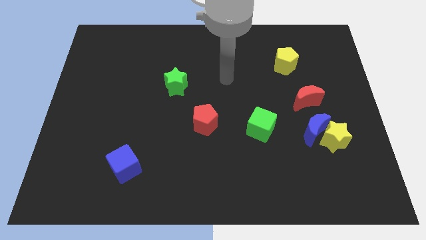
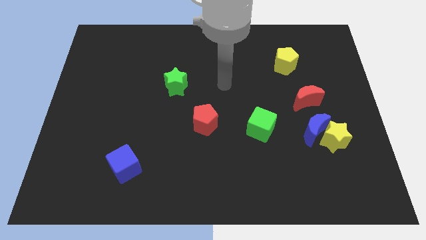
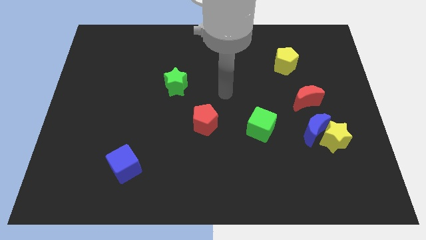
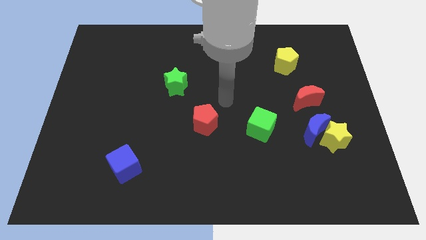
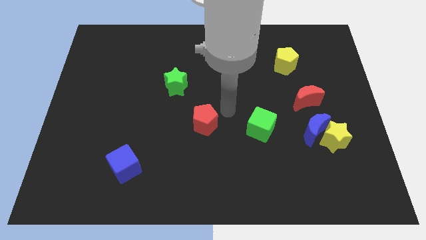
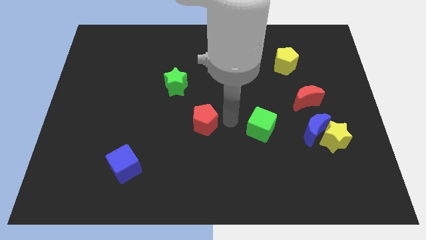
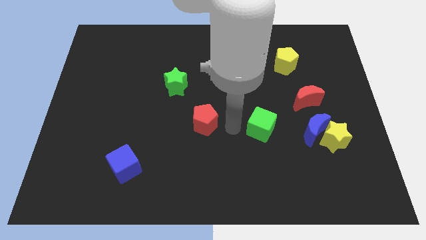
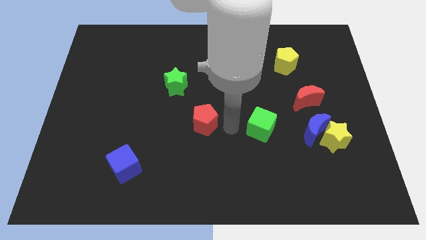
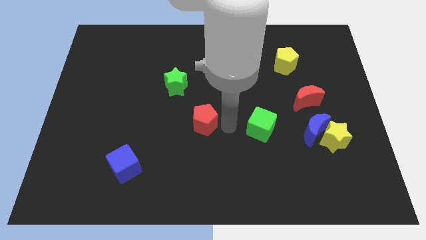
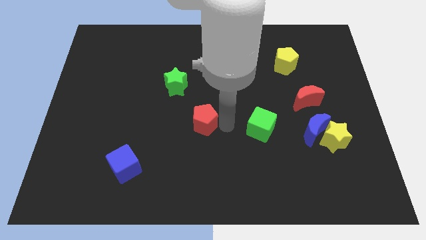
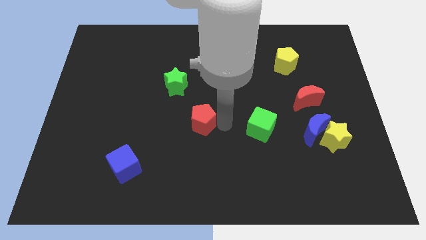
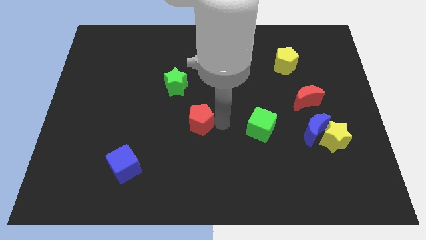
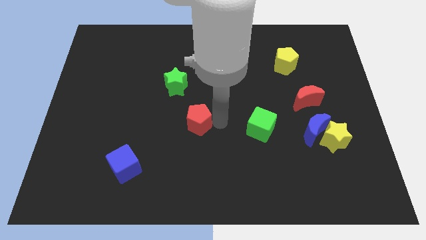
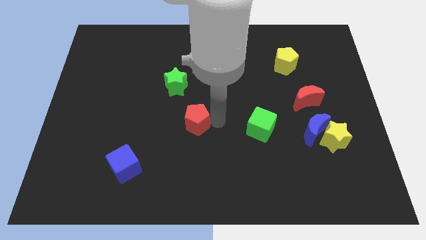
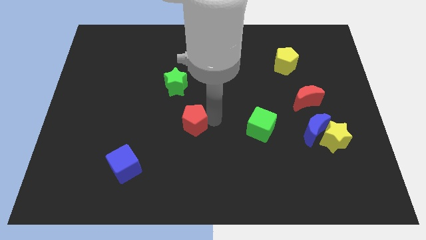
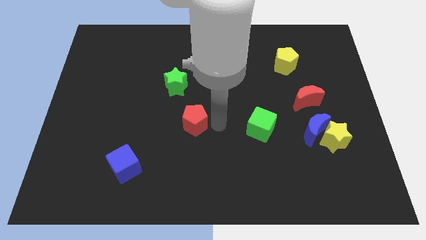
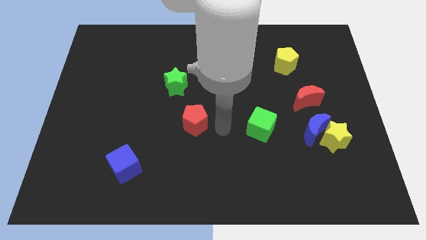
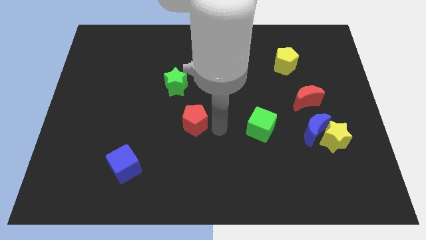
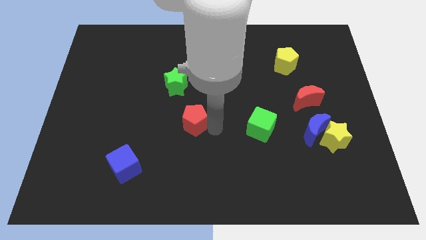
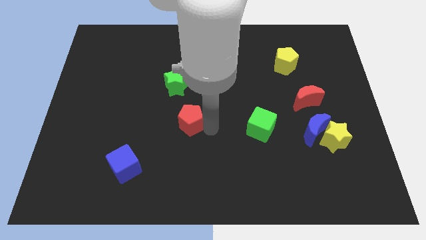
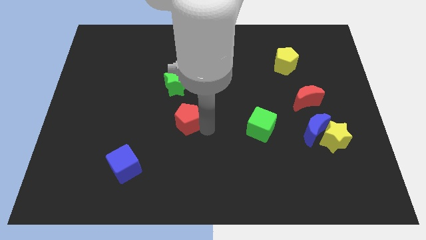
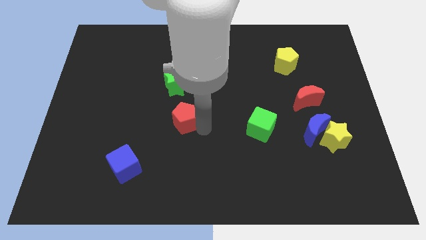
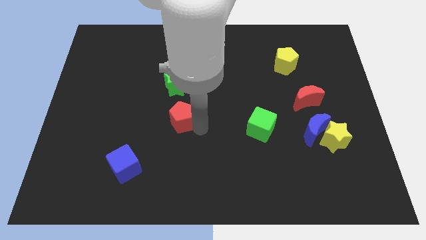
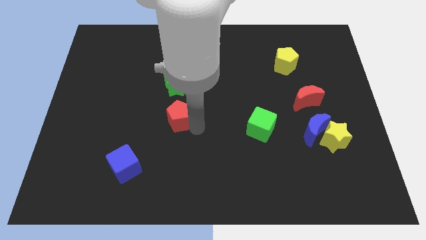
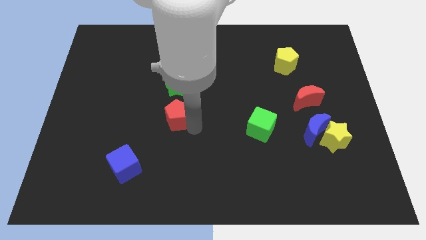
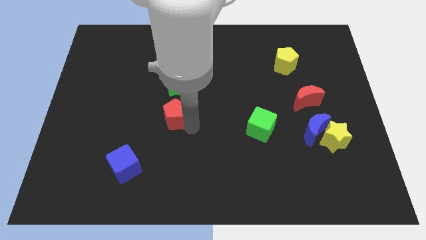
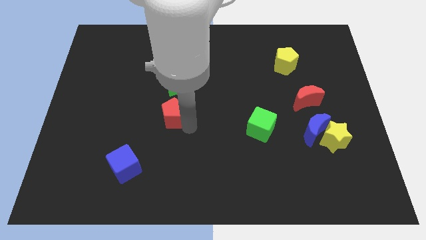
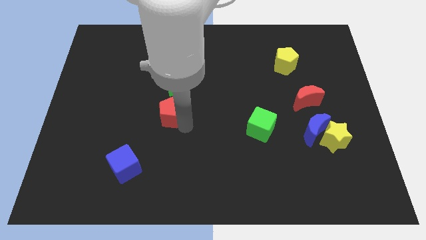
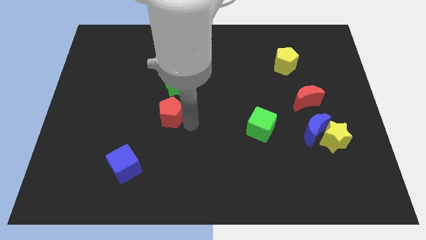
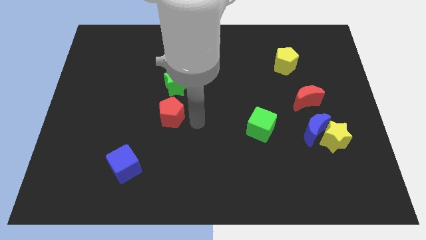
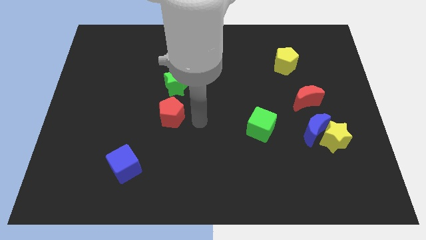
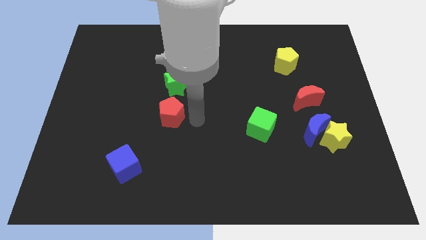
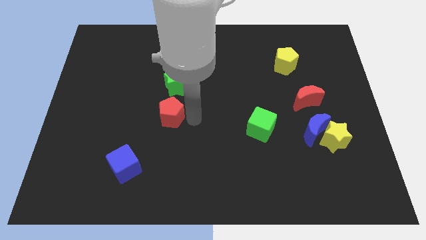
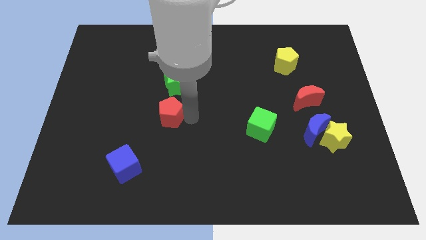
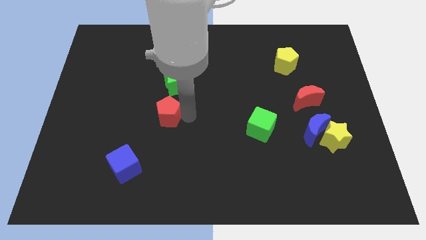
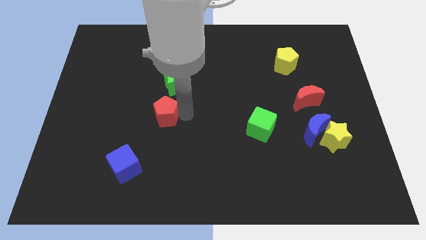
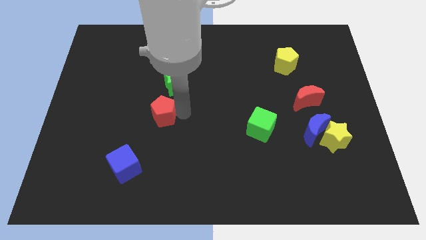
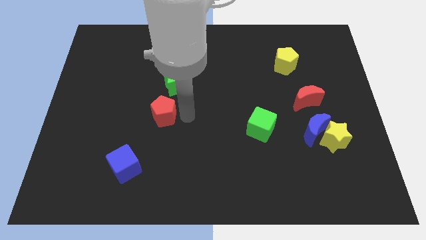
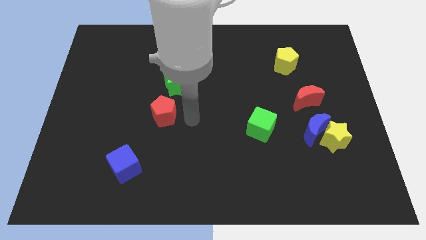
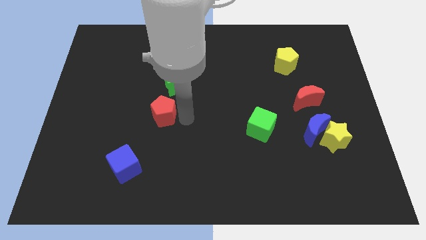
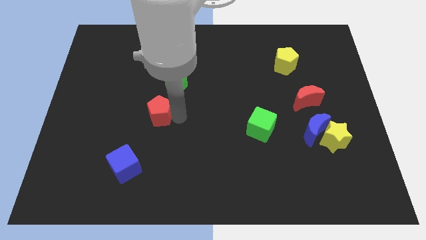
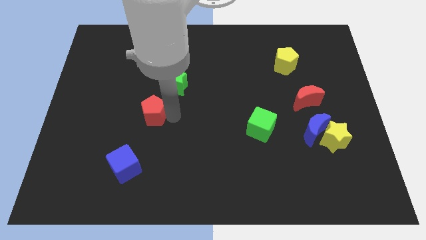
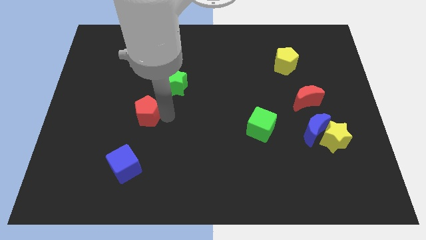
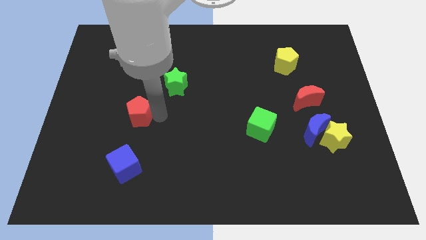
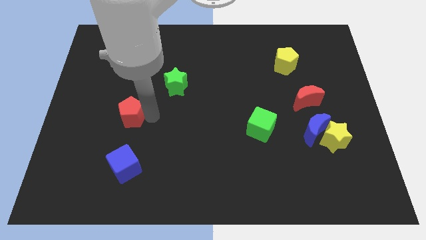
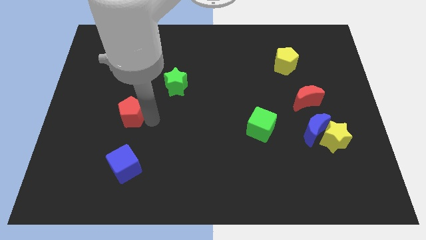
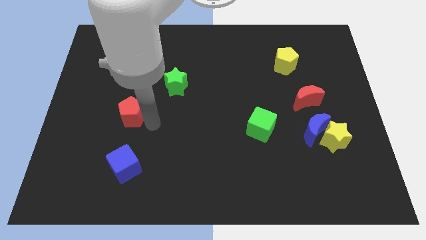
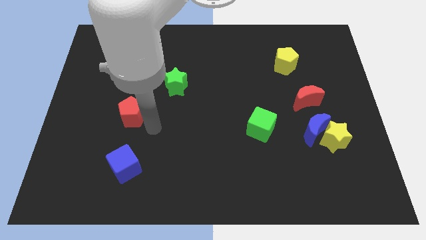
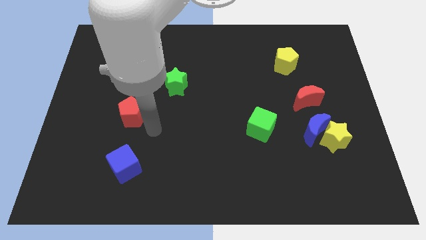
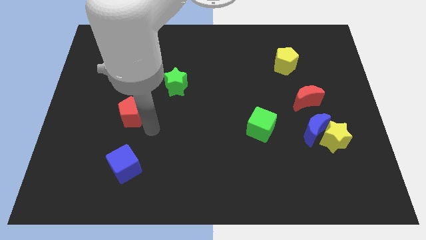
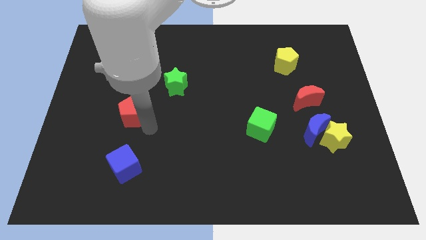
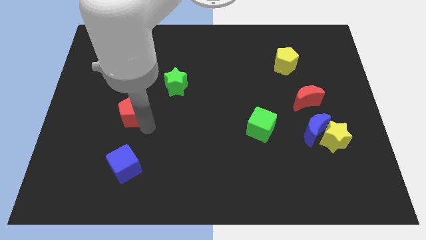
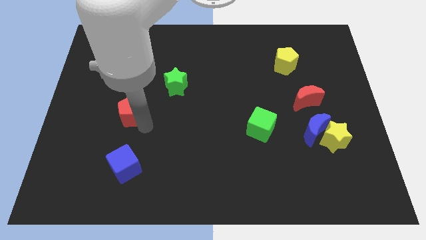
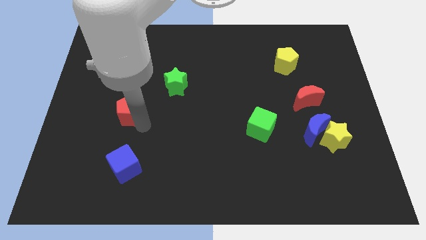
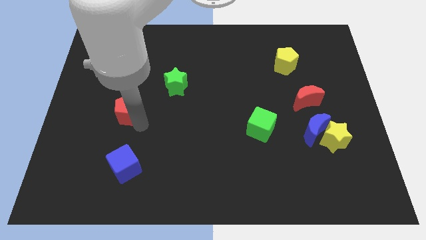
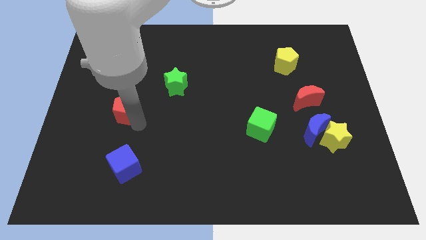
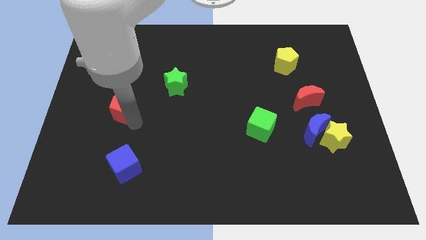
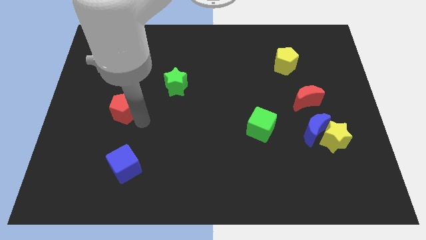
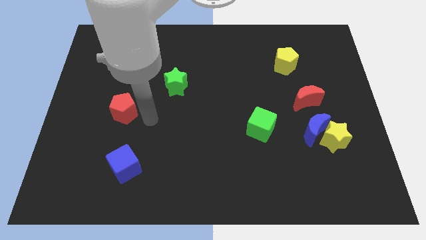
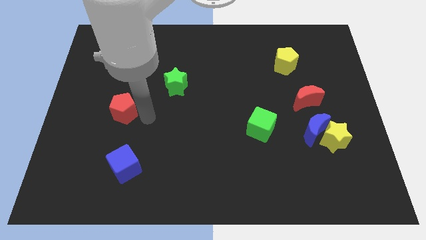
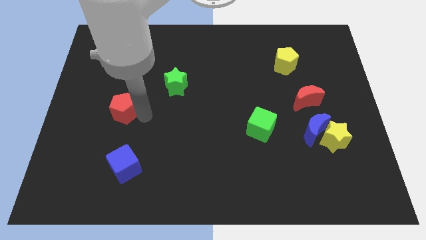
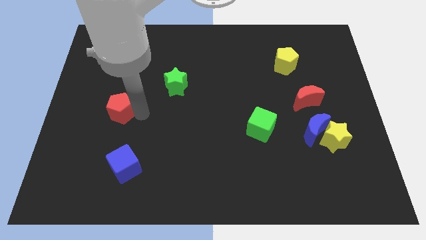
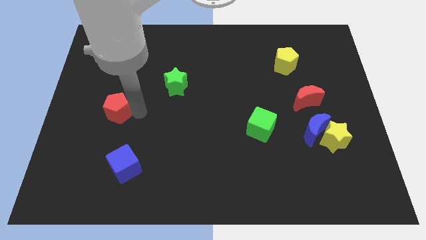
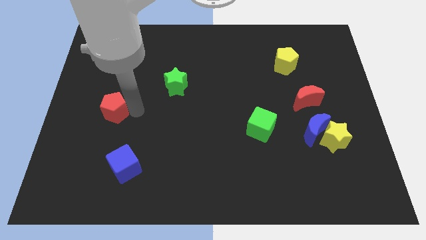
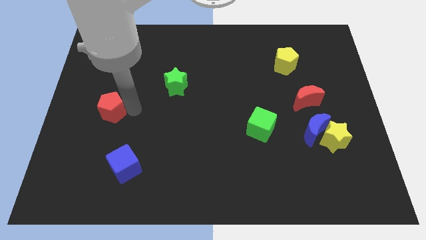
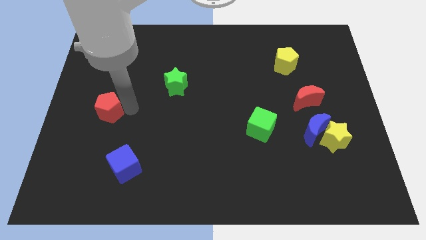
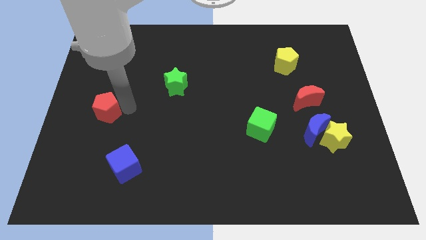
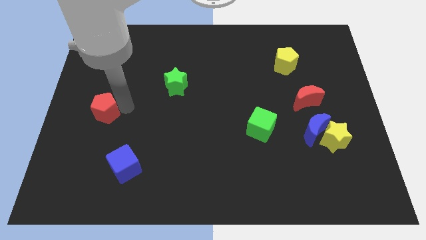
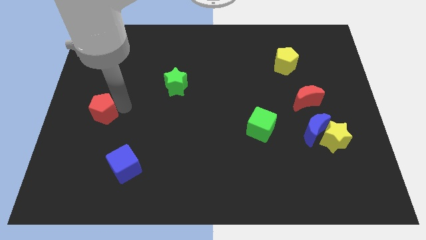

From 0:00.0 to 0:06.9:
slide the red pentagon to the left side of the board
